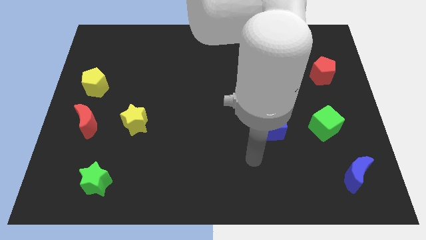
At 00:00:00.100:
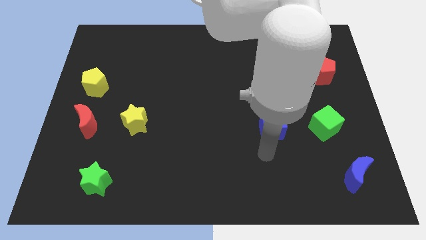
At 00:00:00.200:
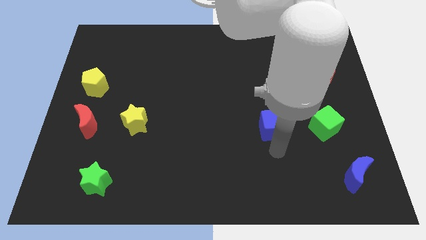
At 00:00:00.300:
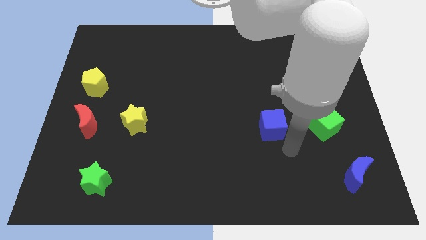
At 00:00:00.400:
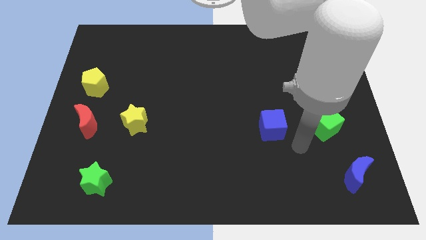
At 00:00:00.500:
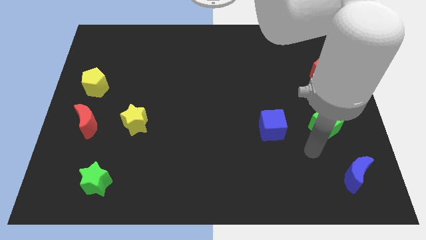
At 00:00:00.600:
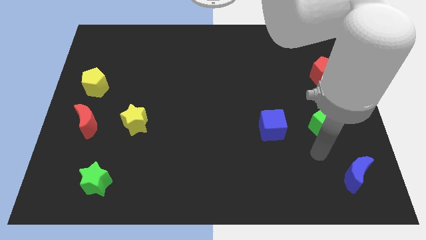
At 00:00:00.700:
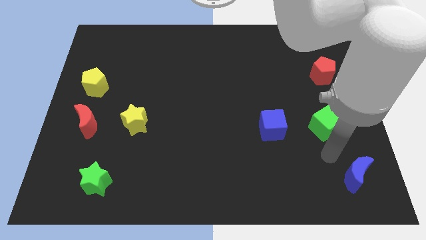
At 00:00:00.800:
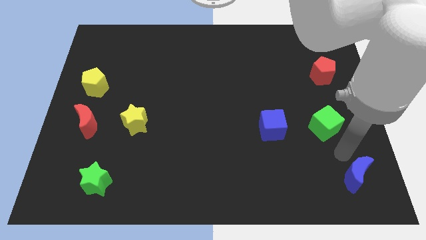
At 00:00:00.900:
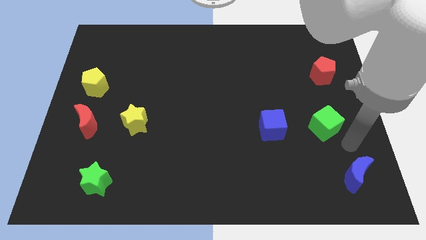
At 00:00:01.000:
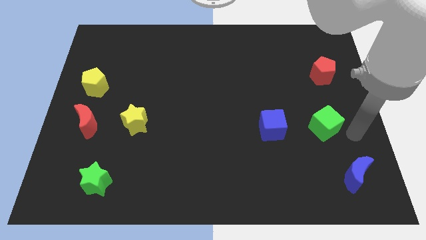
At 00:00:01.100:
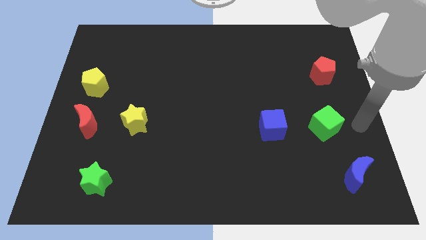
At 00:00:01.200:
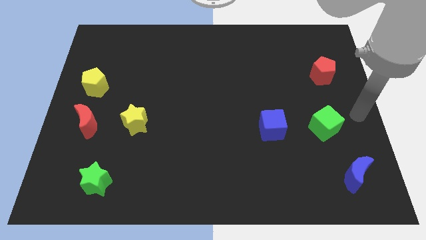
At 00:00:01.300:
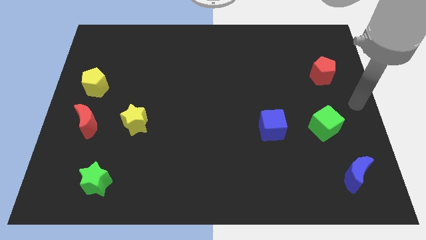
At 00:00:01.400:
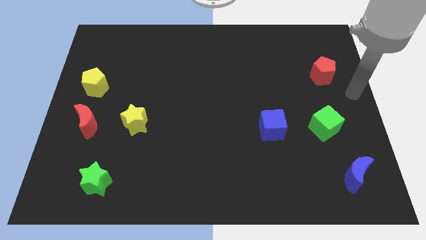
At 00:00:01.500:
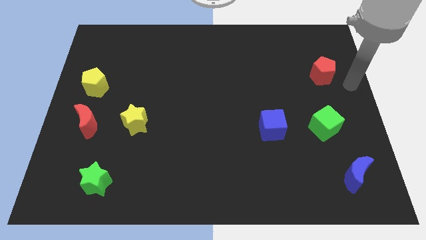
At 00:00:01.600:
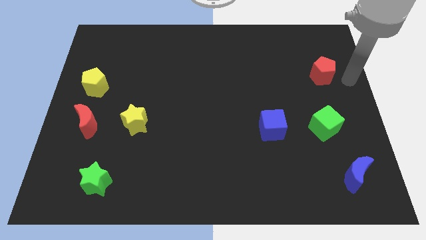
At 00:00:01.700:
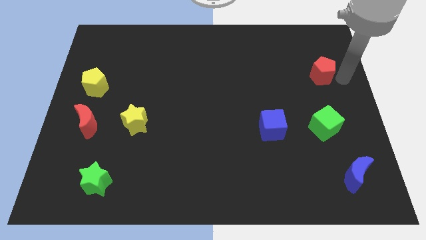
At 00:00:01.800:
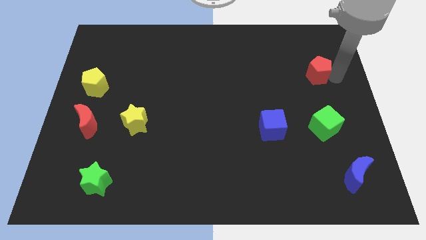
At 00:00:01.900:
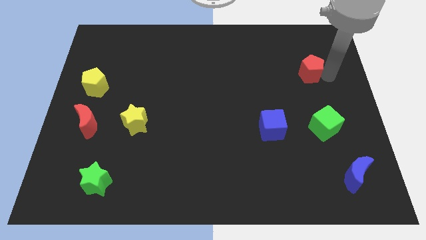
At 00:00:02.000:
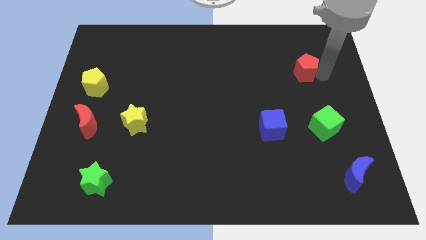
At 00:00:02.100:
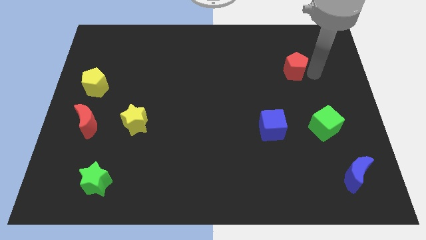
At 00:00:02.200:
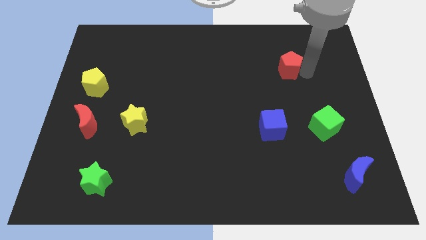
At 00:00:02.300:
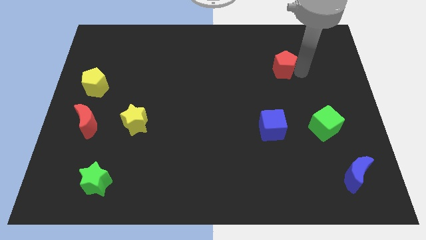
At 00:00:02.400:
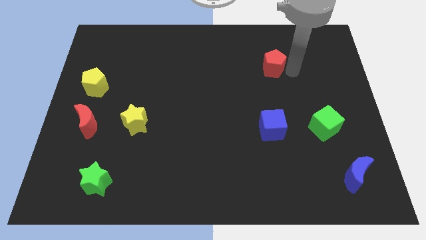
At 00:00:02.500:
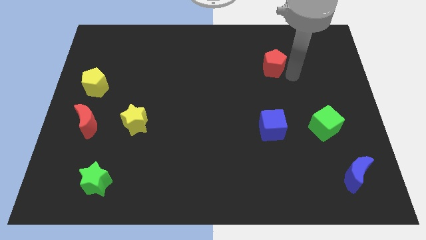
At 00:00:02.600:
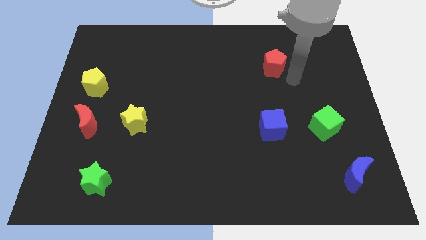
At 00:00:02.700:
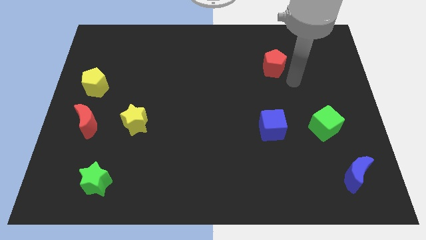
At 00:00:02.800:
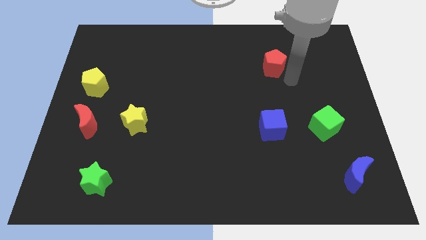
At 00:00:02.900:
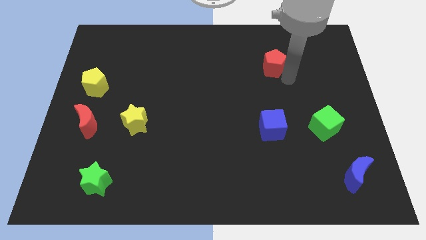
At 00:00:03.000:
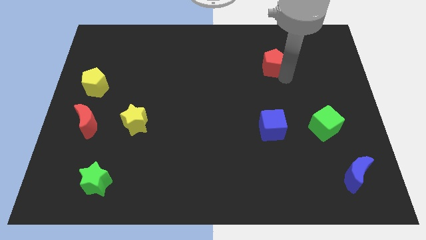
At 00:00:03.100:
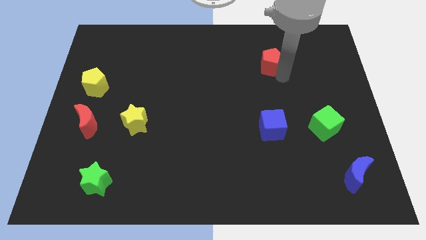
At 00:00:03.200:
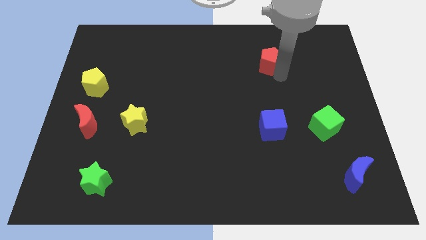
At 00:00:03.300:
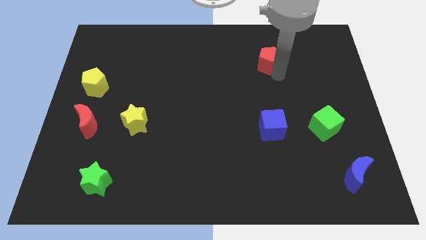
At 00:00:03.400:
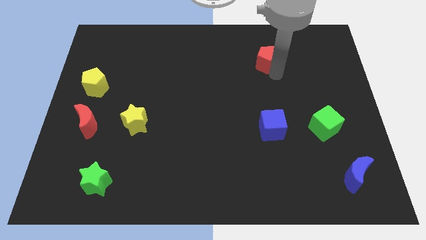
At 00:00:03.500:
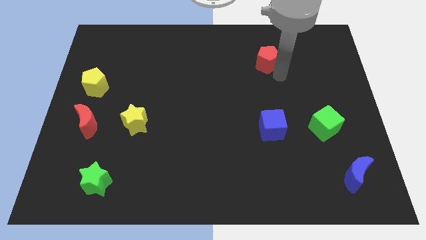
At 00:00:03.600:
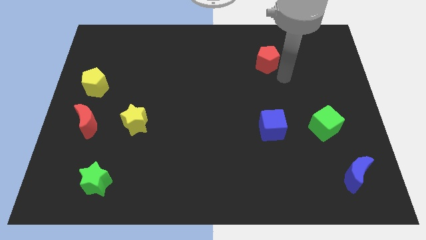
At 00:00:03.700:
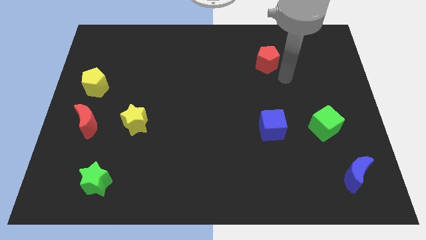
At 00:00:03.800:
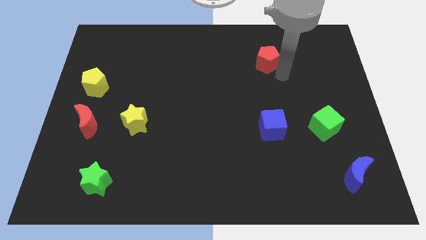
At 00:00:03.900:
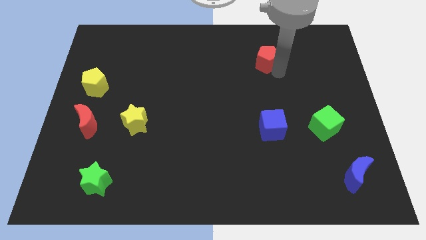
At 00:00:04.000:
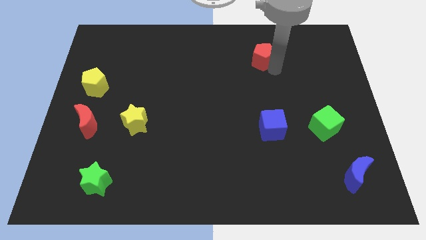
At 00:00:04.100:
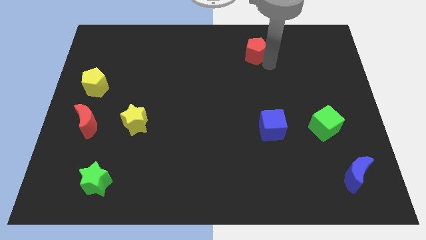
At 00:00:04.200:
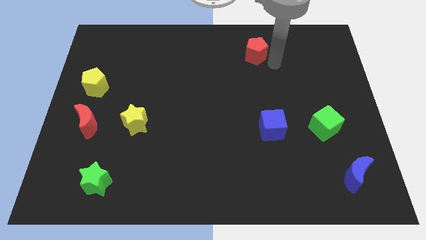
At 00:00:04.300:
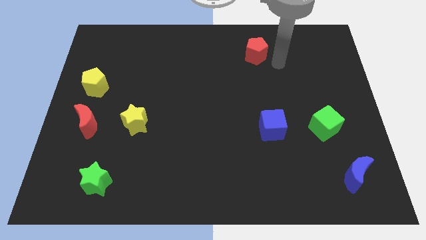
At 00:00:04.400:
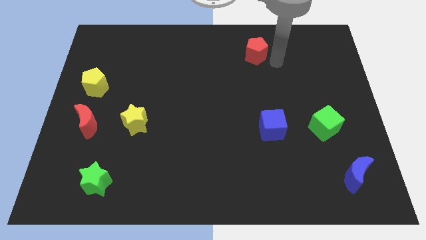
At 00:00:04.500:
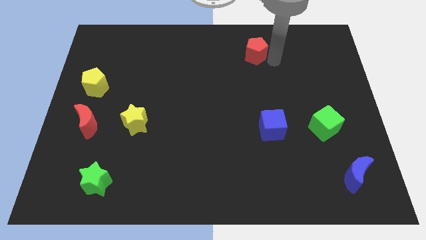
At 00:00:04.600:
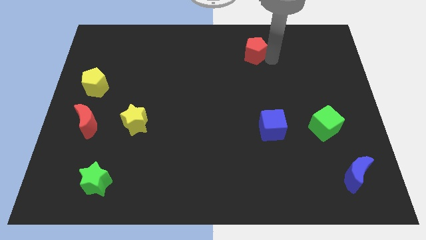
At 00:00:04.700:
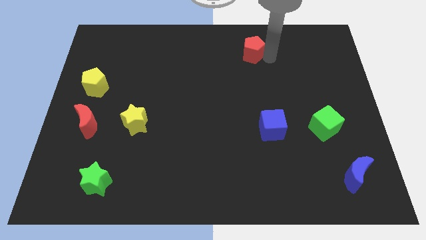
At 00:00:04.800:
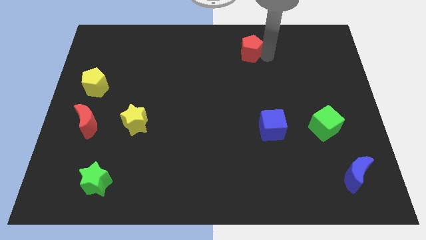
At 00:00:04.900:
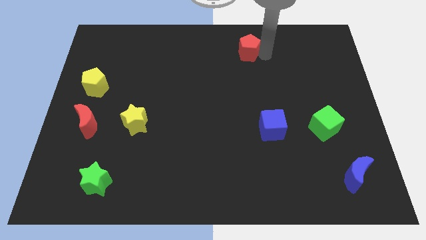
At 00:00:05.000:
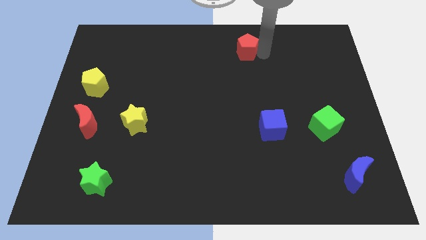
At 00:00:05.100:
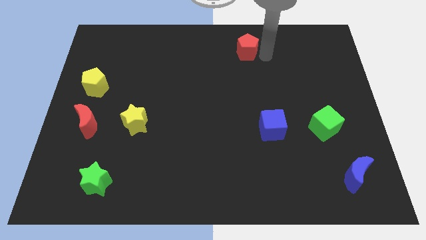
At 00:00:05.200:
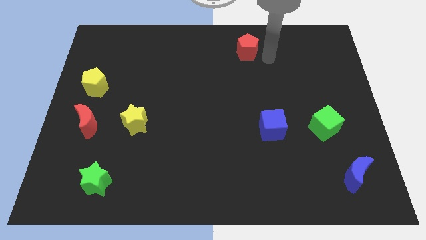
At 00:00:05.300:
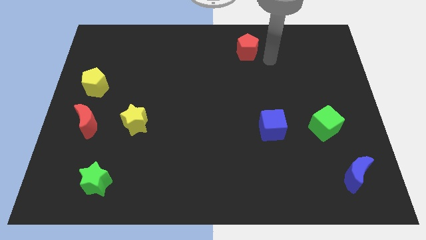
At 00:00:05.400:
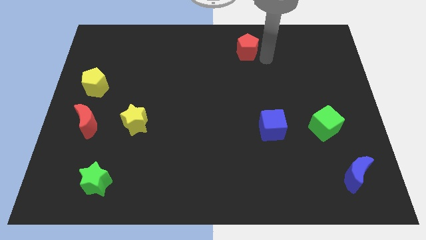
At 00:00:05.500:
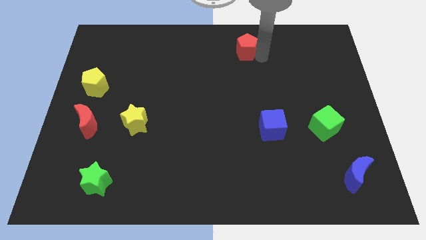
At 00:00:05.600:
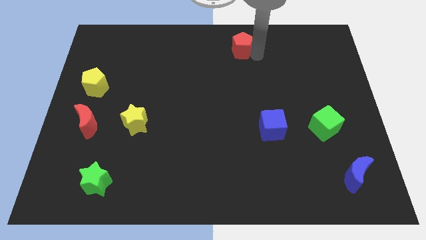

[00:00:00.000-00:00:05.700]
slide the red pentagon to the top side

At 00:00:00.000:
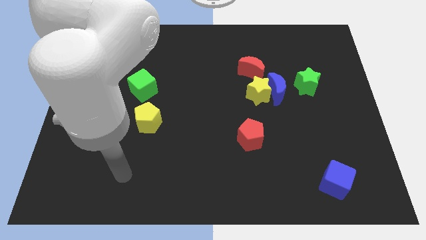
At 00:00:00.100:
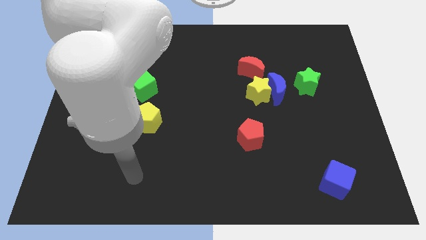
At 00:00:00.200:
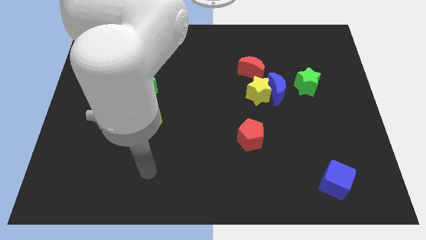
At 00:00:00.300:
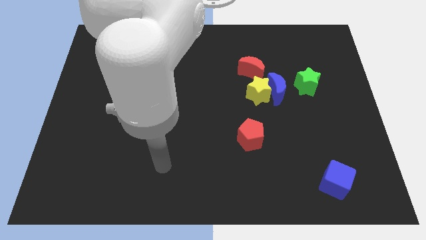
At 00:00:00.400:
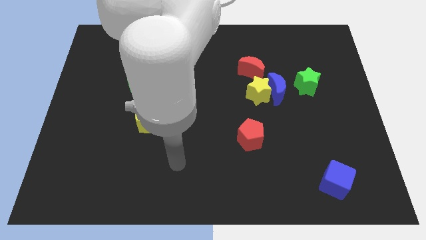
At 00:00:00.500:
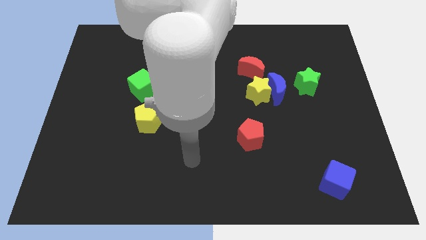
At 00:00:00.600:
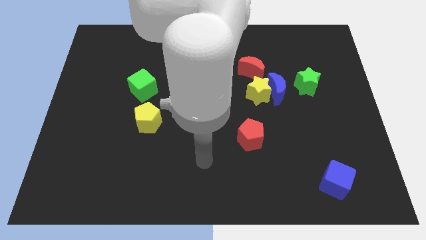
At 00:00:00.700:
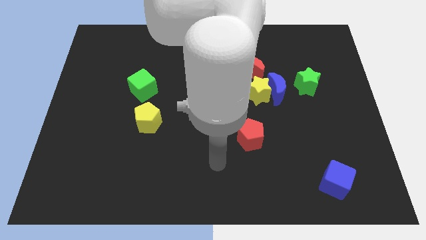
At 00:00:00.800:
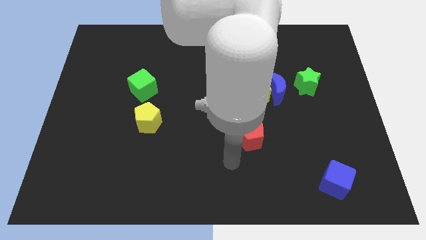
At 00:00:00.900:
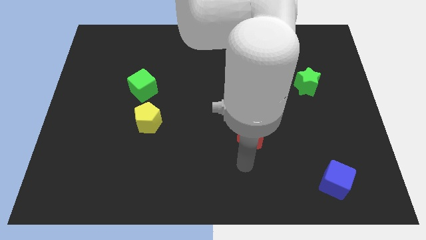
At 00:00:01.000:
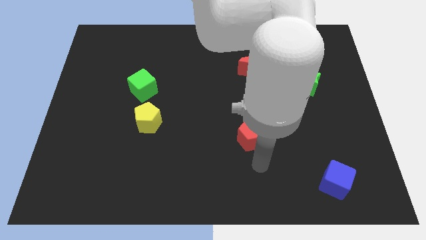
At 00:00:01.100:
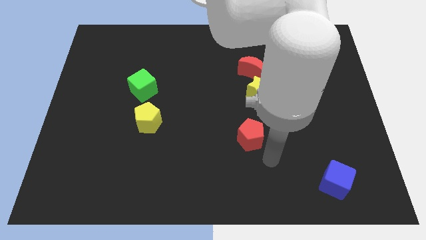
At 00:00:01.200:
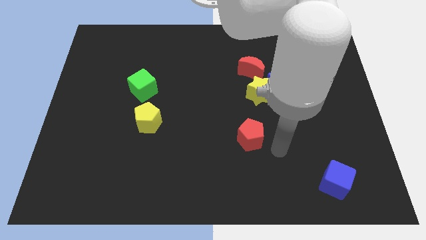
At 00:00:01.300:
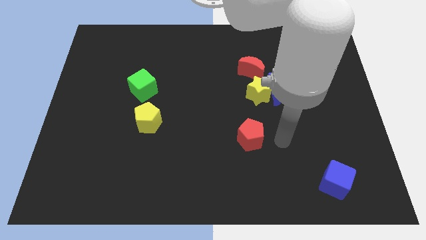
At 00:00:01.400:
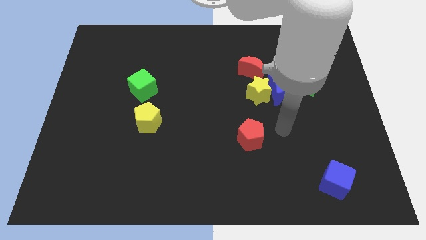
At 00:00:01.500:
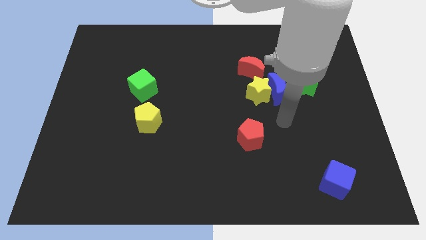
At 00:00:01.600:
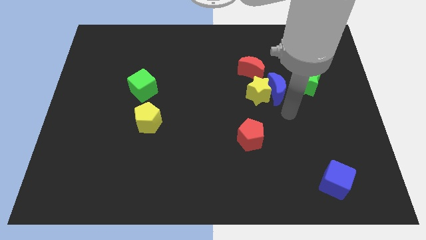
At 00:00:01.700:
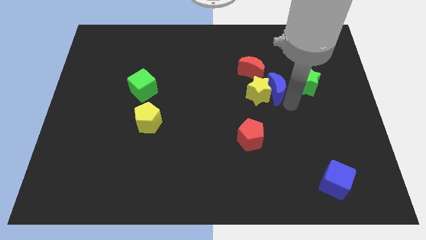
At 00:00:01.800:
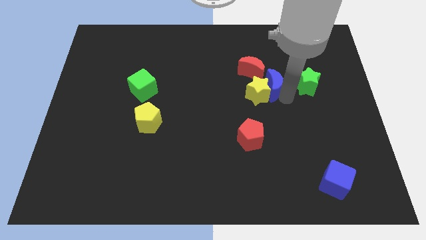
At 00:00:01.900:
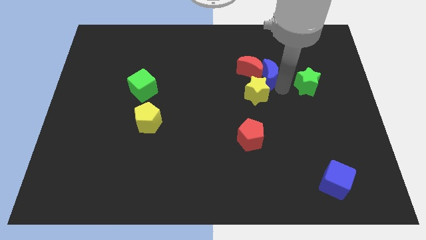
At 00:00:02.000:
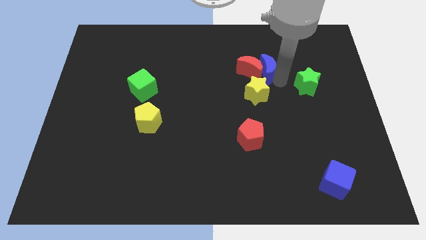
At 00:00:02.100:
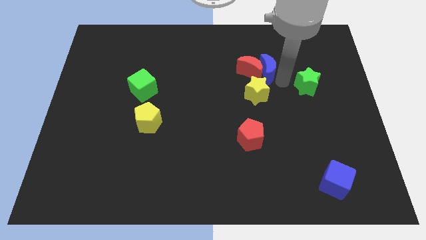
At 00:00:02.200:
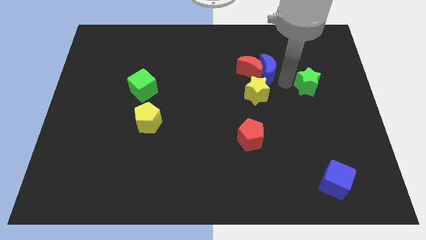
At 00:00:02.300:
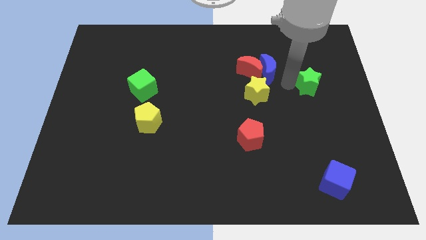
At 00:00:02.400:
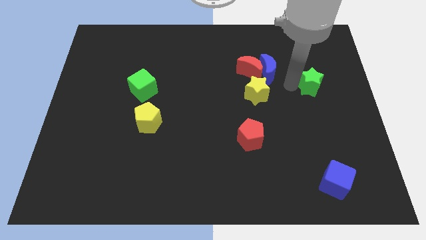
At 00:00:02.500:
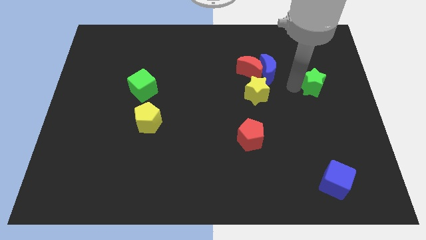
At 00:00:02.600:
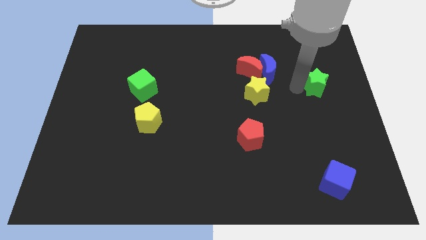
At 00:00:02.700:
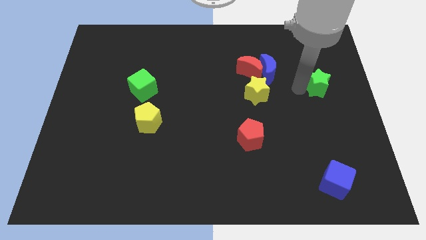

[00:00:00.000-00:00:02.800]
slide the green star to the center right
